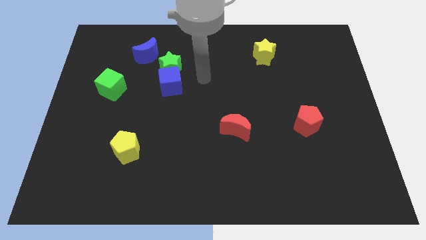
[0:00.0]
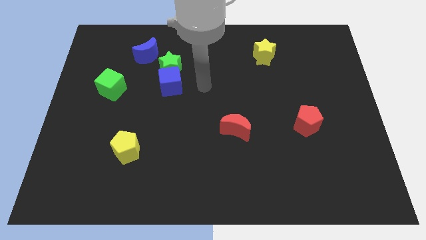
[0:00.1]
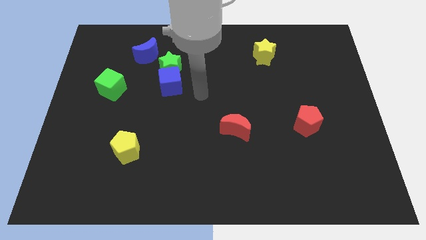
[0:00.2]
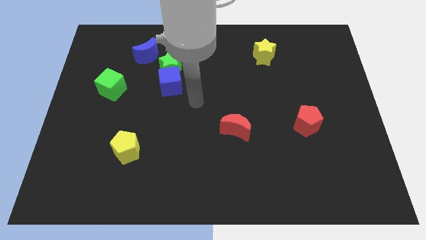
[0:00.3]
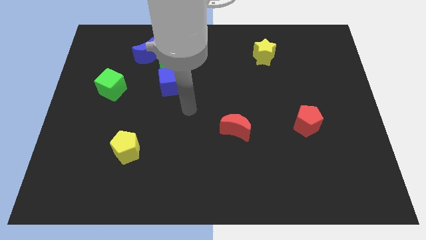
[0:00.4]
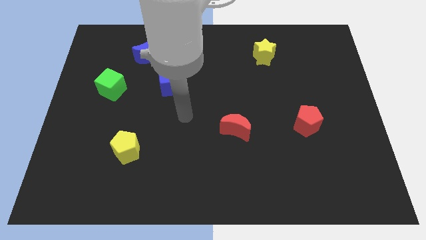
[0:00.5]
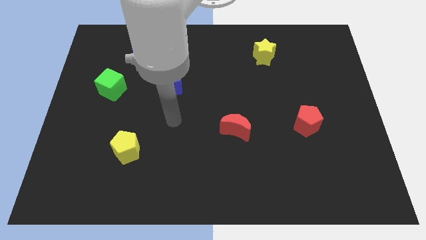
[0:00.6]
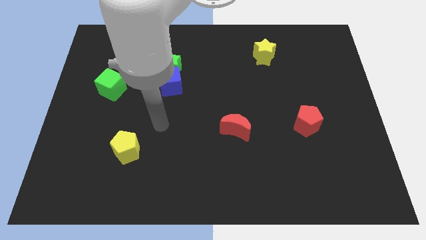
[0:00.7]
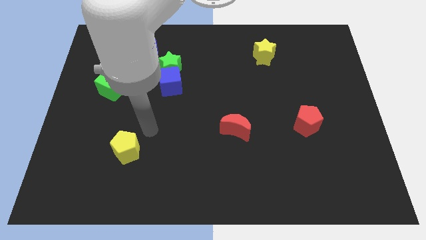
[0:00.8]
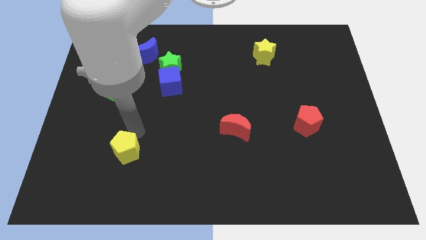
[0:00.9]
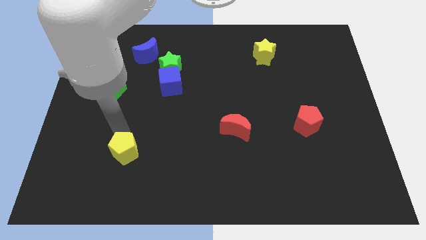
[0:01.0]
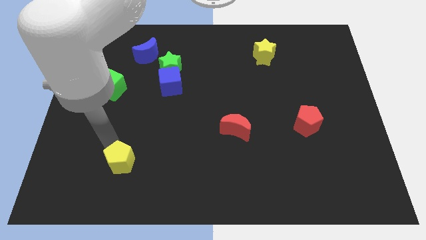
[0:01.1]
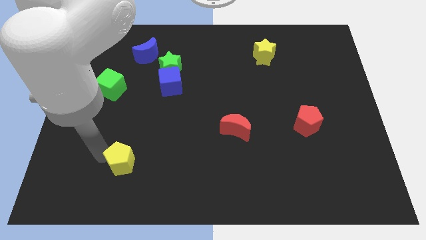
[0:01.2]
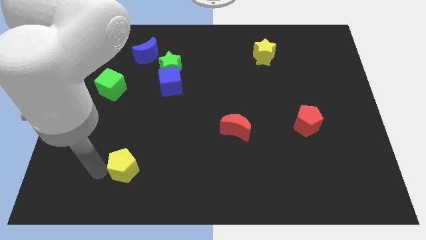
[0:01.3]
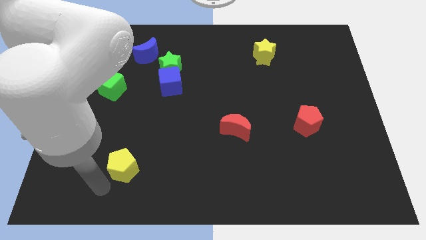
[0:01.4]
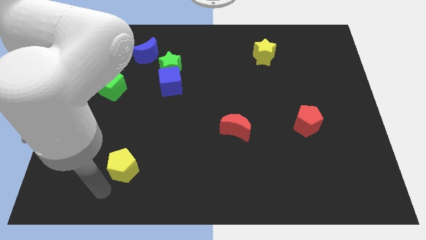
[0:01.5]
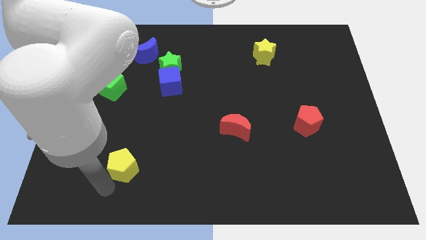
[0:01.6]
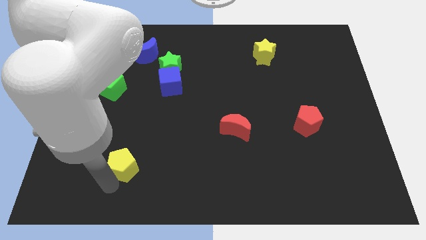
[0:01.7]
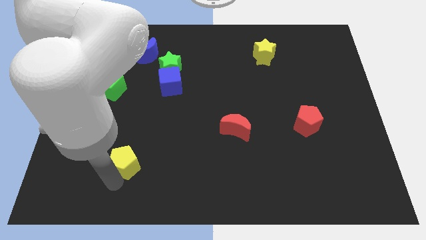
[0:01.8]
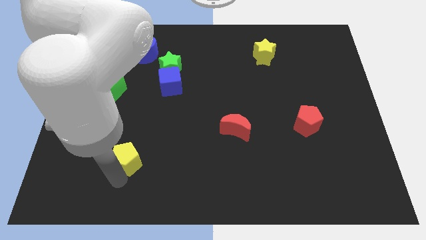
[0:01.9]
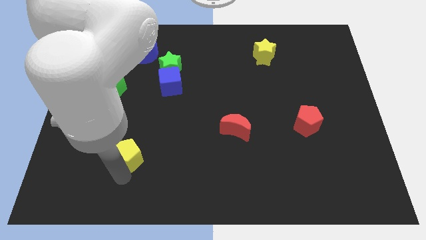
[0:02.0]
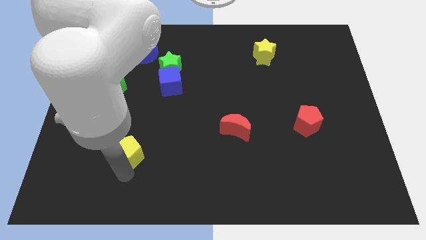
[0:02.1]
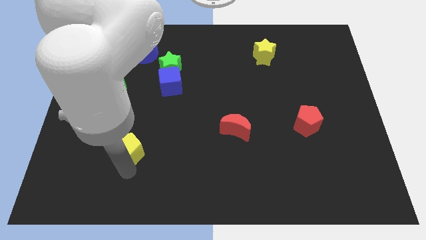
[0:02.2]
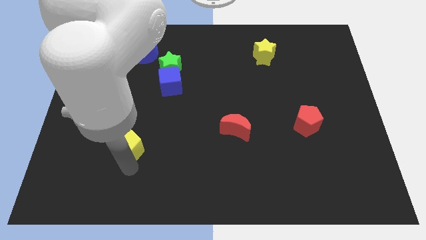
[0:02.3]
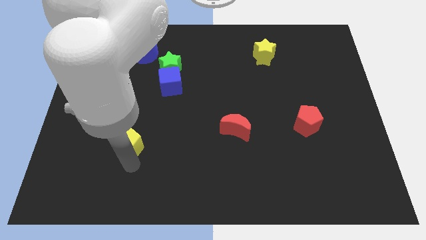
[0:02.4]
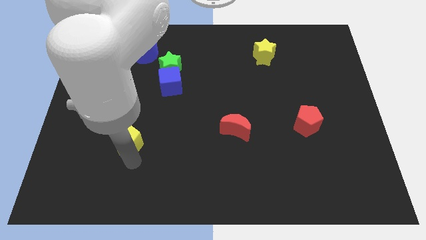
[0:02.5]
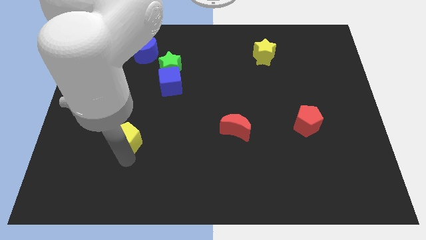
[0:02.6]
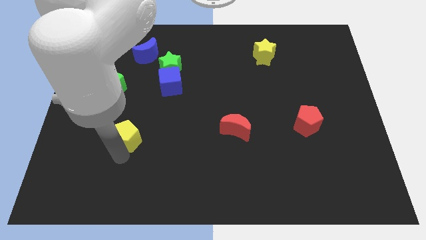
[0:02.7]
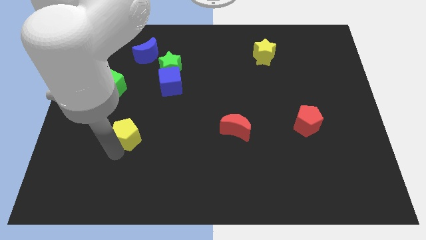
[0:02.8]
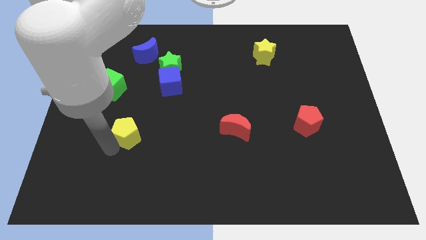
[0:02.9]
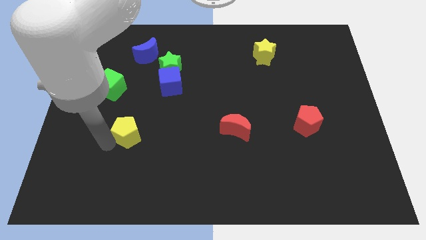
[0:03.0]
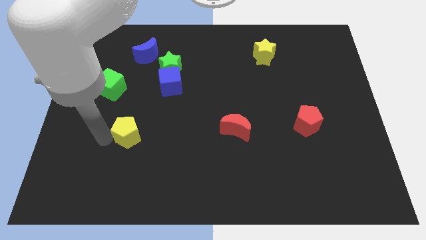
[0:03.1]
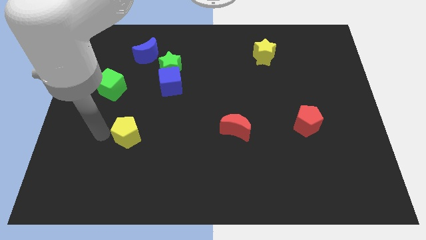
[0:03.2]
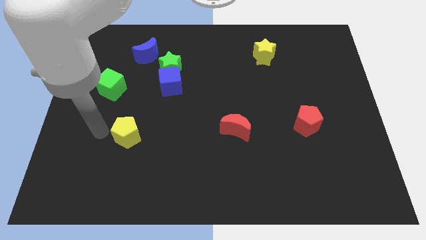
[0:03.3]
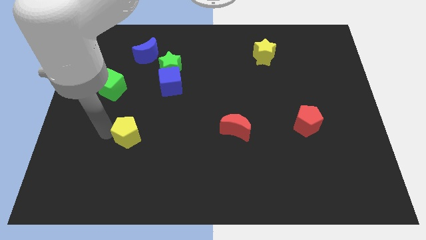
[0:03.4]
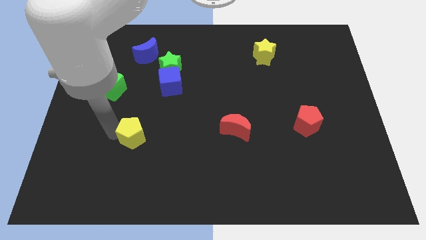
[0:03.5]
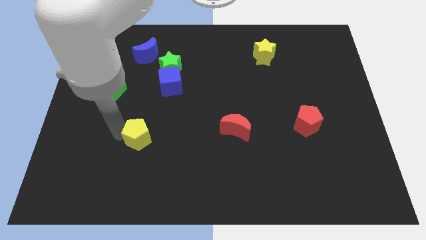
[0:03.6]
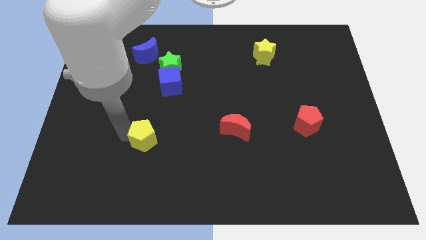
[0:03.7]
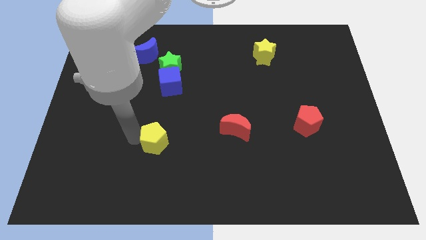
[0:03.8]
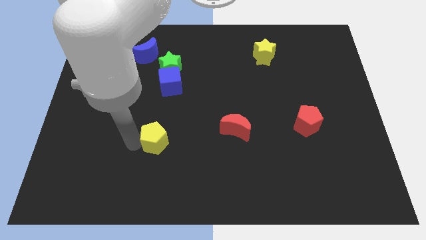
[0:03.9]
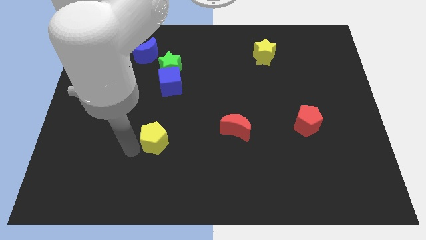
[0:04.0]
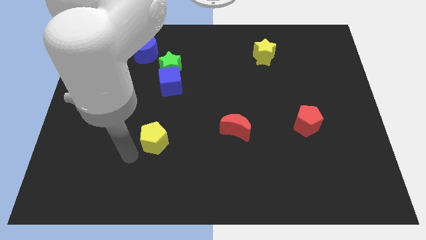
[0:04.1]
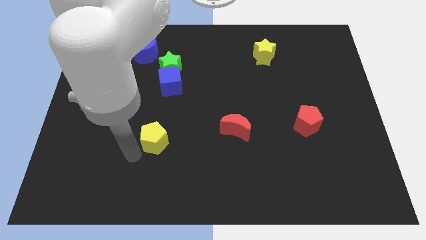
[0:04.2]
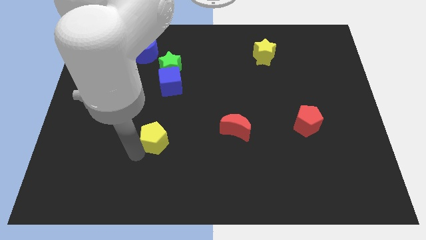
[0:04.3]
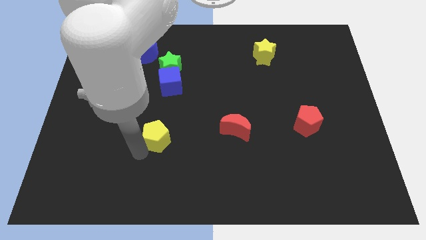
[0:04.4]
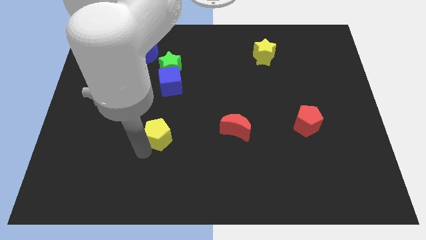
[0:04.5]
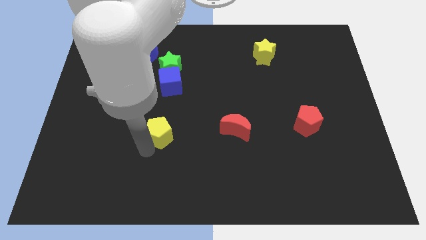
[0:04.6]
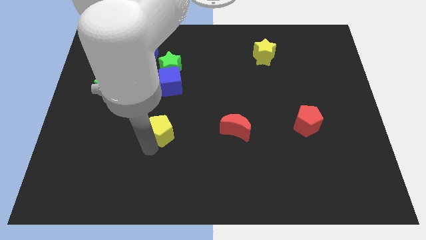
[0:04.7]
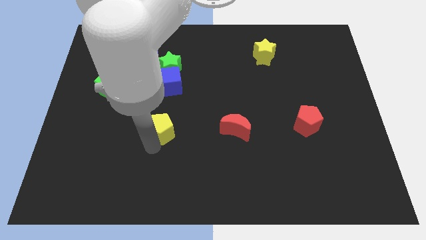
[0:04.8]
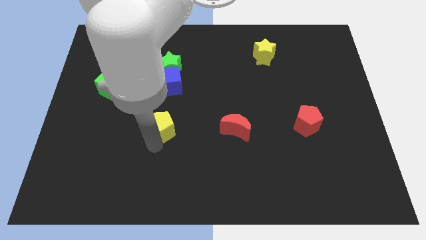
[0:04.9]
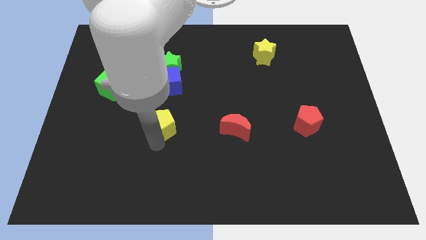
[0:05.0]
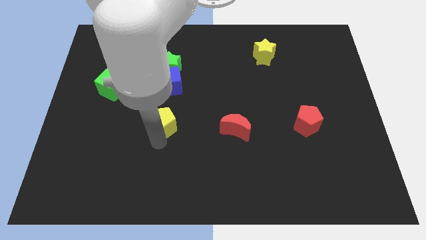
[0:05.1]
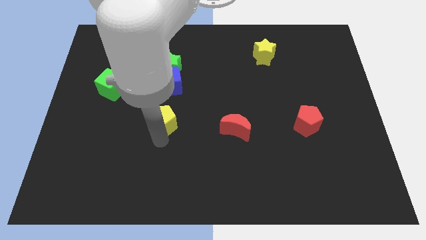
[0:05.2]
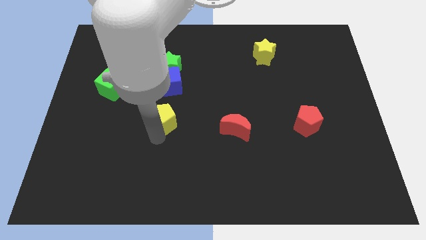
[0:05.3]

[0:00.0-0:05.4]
put the yellow pentagon to the center

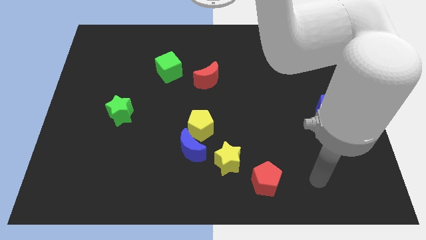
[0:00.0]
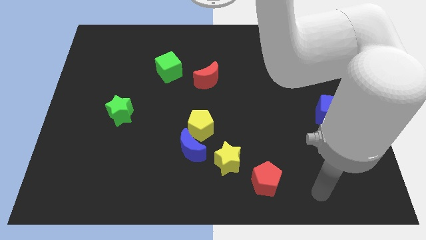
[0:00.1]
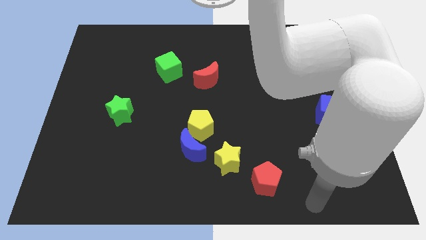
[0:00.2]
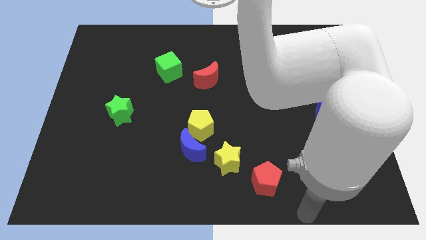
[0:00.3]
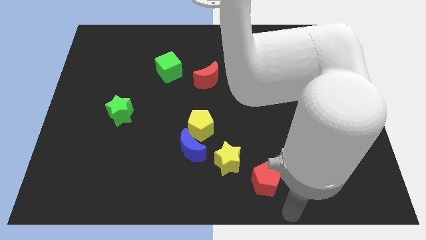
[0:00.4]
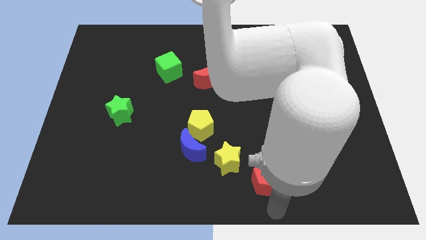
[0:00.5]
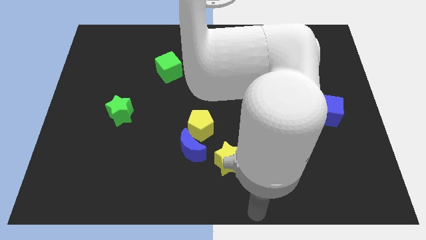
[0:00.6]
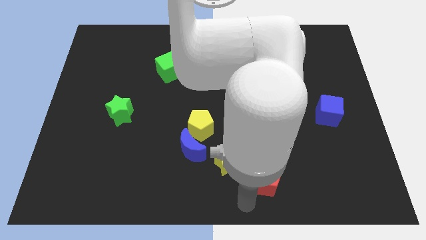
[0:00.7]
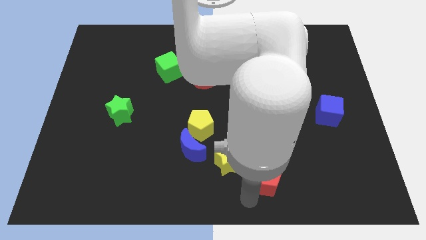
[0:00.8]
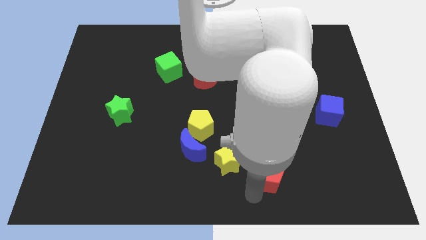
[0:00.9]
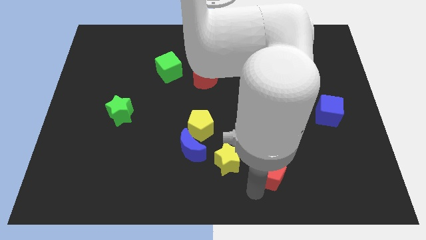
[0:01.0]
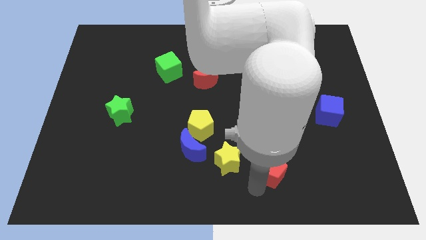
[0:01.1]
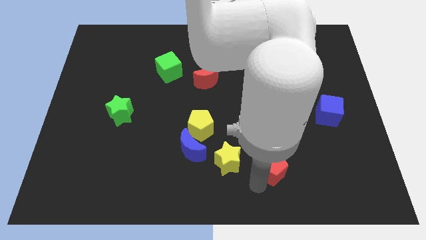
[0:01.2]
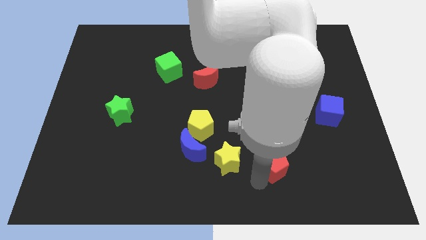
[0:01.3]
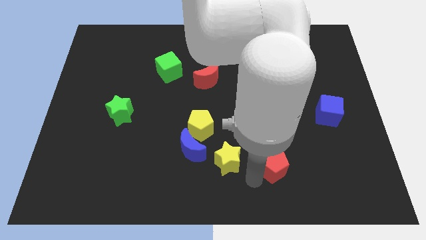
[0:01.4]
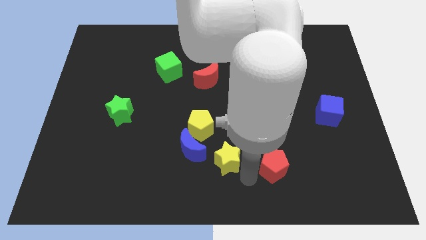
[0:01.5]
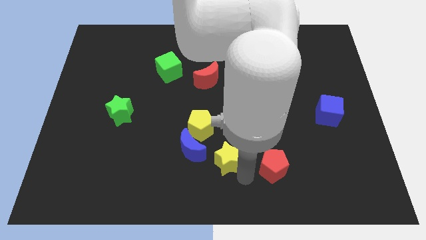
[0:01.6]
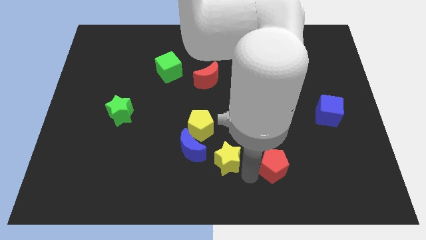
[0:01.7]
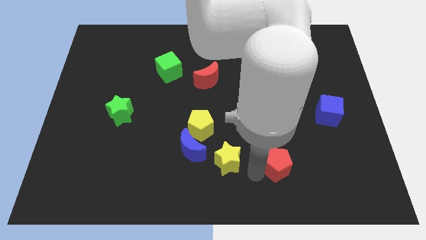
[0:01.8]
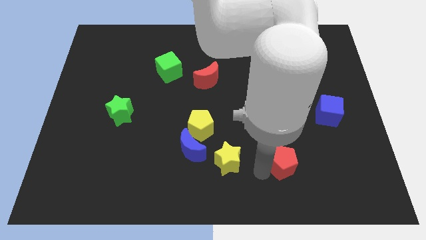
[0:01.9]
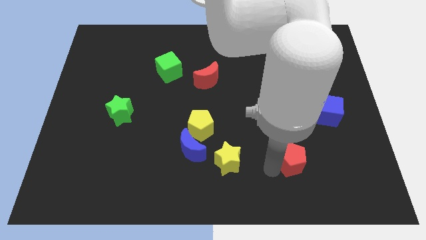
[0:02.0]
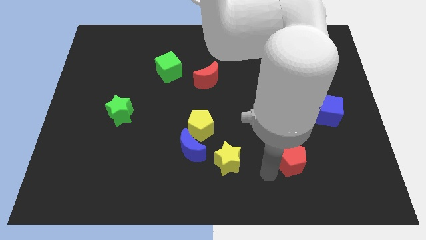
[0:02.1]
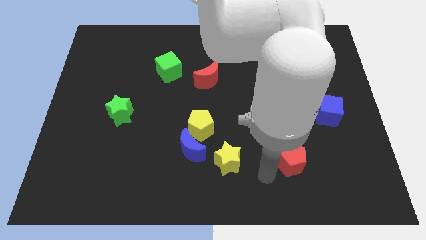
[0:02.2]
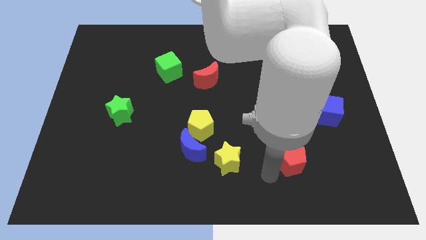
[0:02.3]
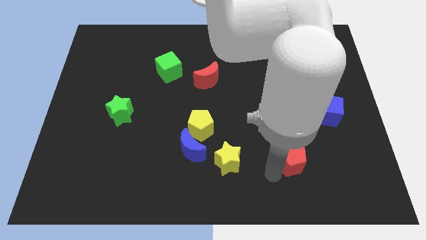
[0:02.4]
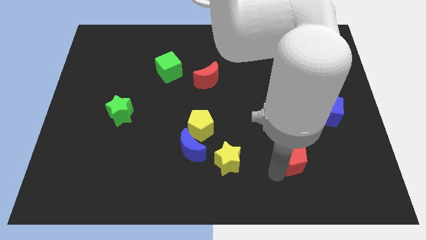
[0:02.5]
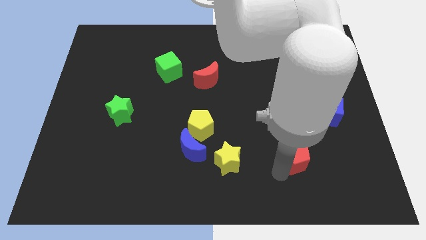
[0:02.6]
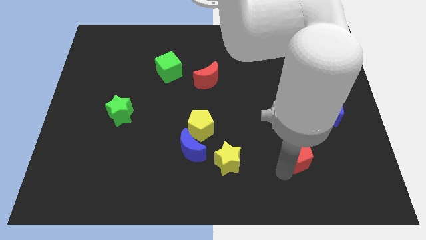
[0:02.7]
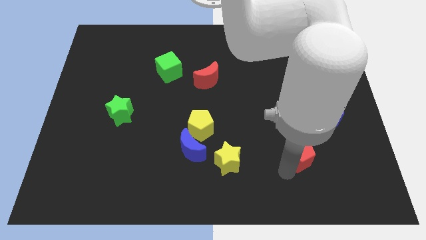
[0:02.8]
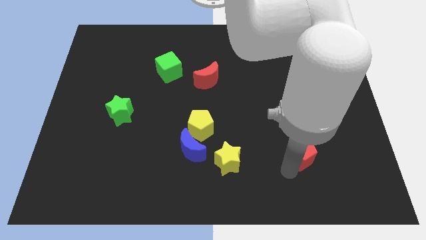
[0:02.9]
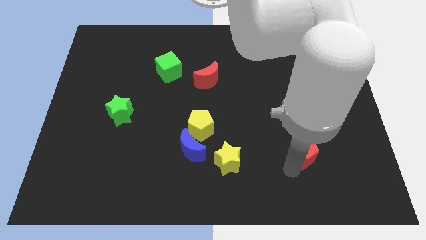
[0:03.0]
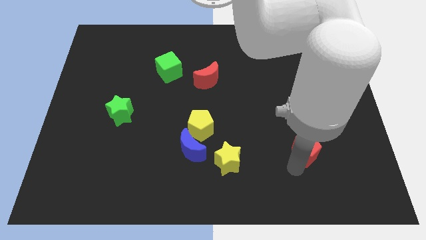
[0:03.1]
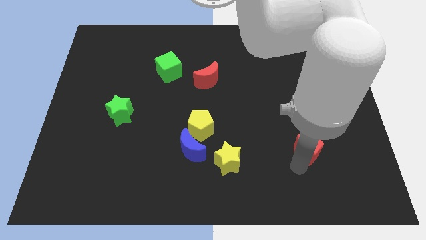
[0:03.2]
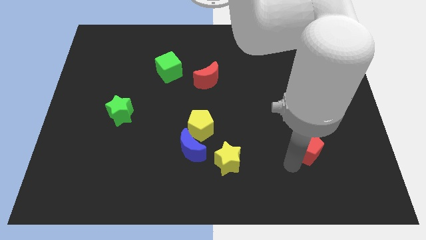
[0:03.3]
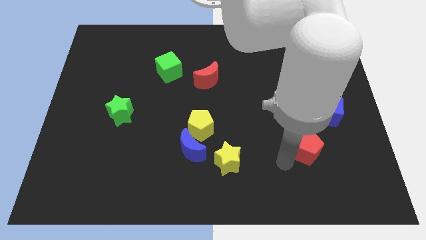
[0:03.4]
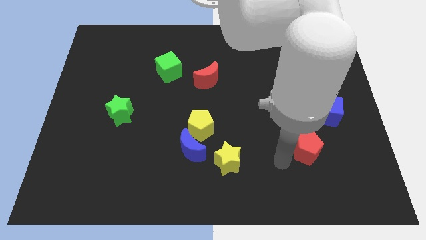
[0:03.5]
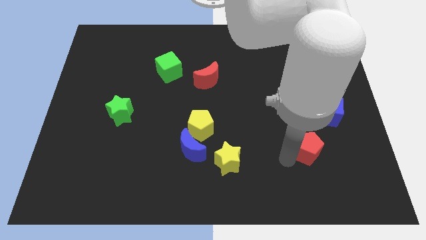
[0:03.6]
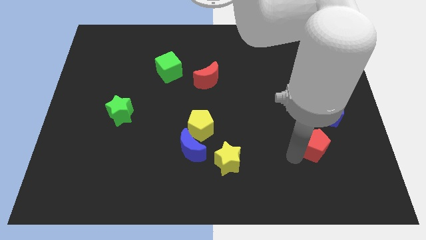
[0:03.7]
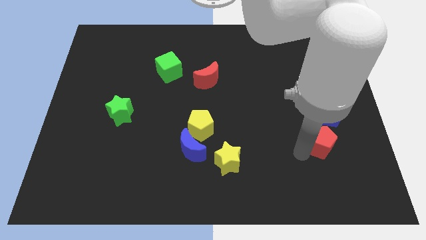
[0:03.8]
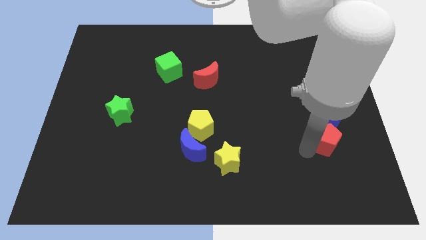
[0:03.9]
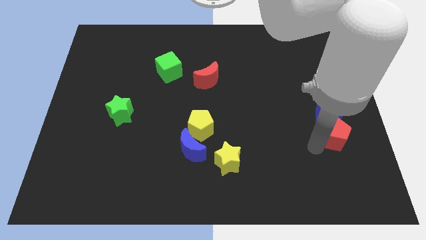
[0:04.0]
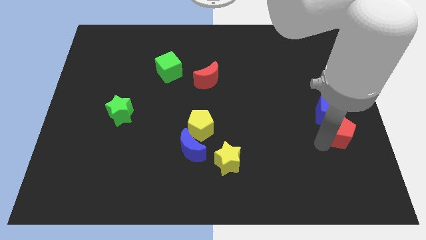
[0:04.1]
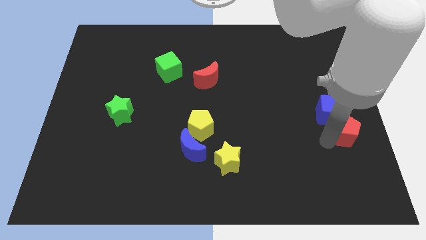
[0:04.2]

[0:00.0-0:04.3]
push the red pentagon to the right side
